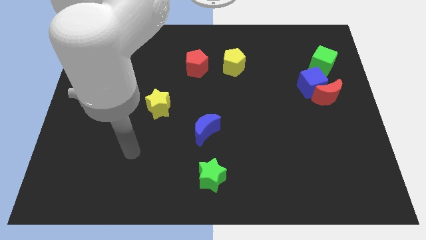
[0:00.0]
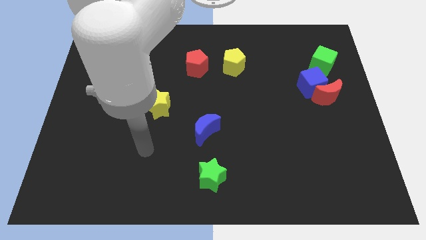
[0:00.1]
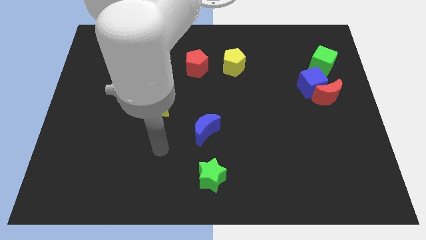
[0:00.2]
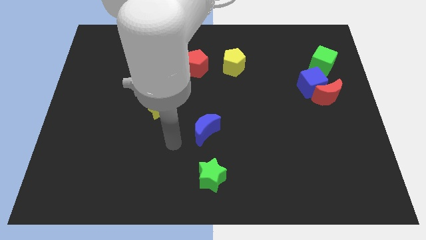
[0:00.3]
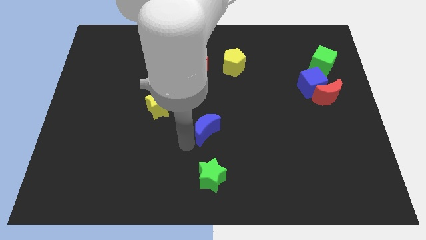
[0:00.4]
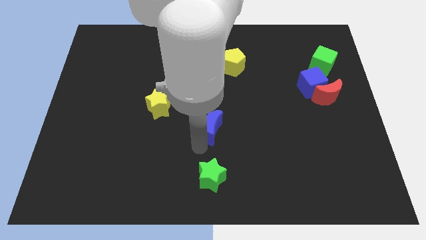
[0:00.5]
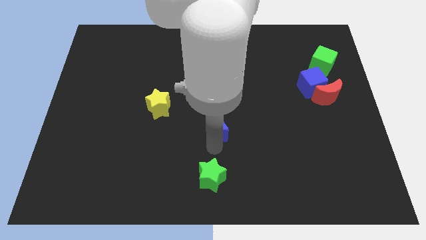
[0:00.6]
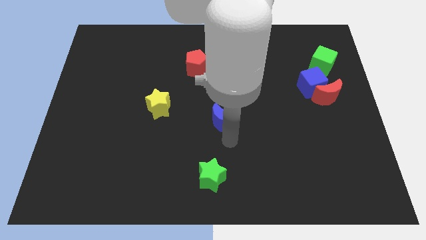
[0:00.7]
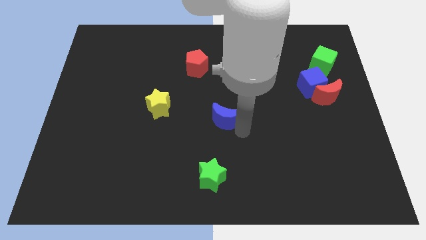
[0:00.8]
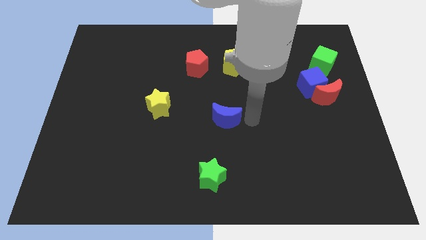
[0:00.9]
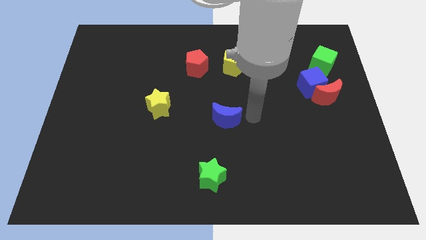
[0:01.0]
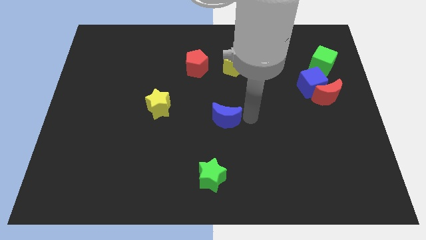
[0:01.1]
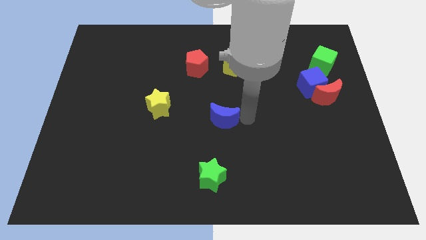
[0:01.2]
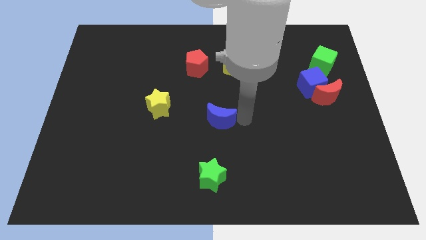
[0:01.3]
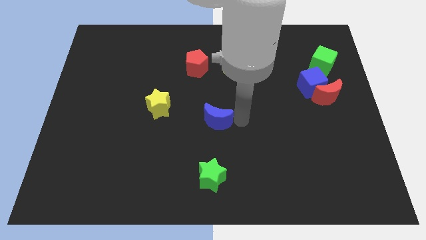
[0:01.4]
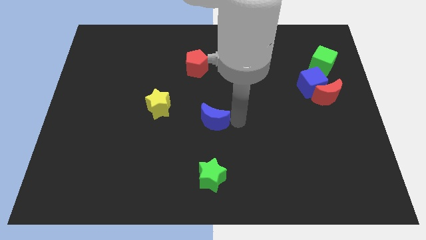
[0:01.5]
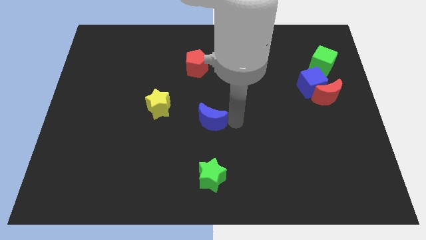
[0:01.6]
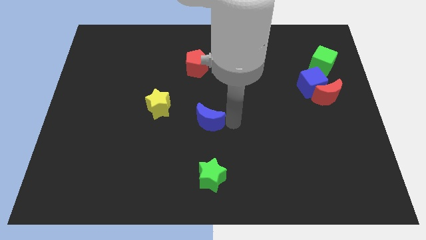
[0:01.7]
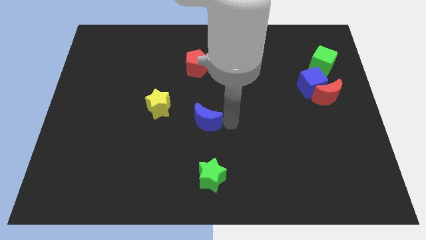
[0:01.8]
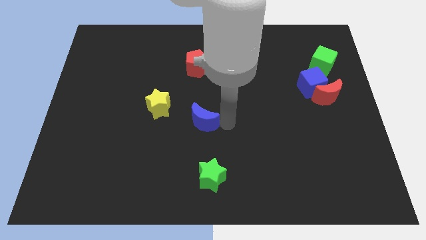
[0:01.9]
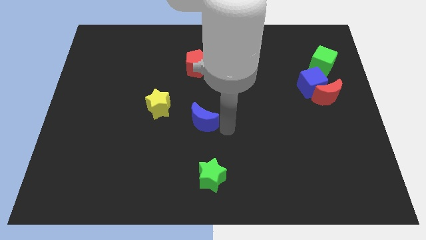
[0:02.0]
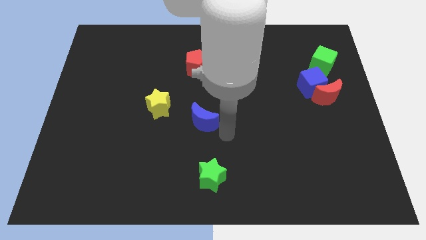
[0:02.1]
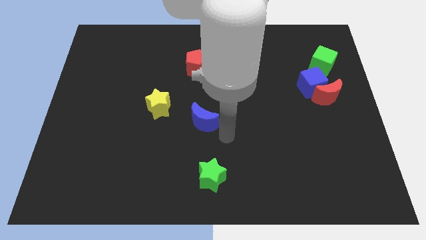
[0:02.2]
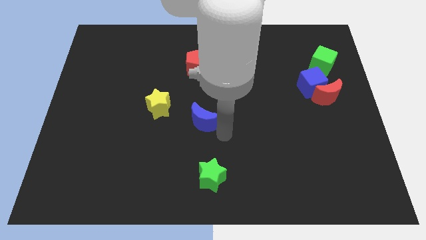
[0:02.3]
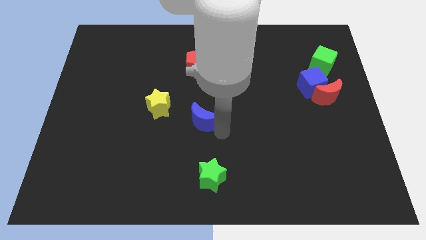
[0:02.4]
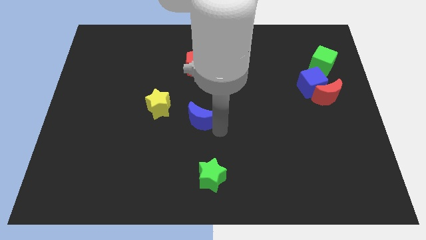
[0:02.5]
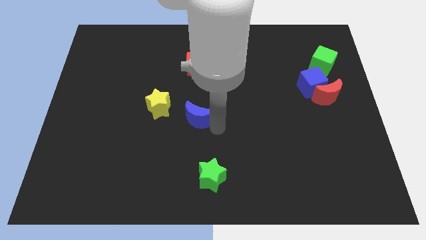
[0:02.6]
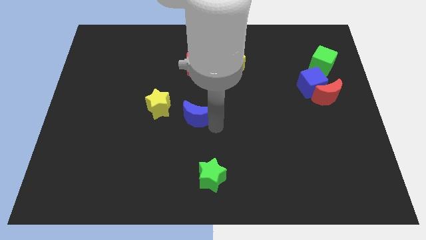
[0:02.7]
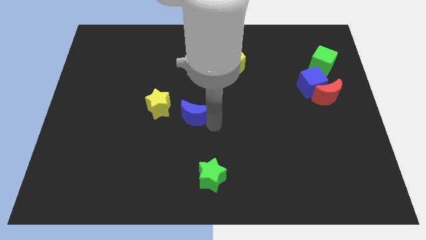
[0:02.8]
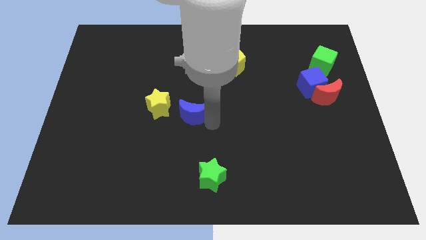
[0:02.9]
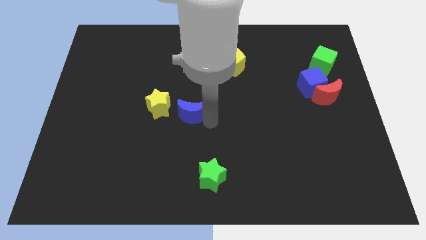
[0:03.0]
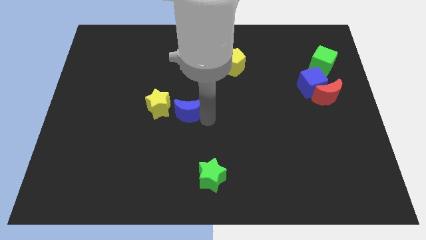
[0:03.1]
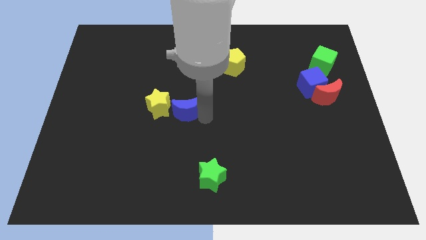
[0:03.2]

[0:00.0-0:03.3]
move the blue moon slightly upwards and then left

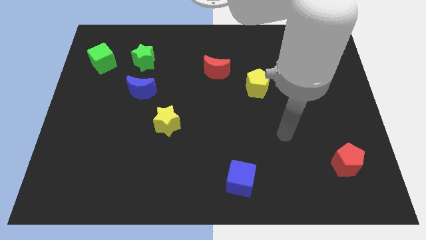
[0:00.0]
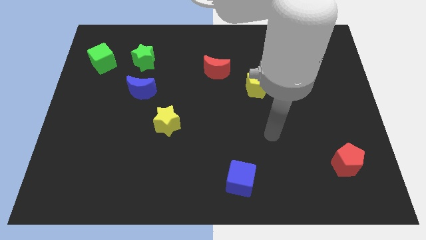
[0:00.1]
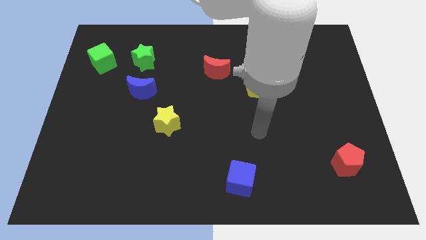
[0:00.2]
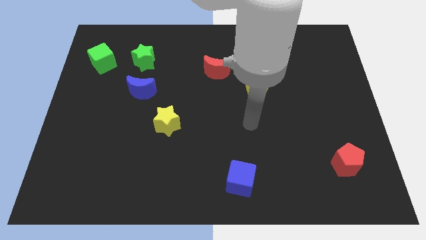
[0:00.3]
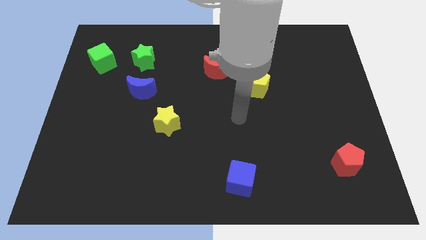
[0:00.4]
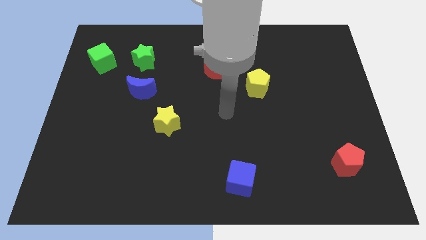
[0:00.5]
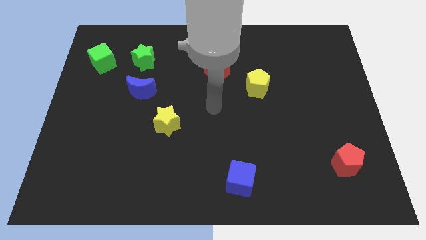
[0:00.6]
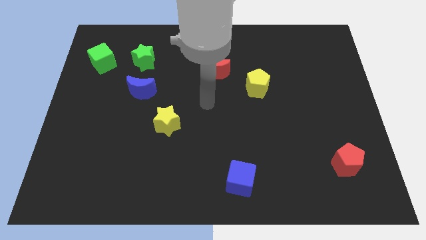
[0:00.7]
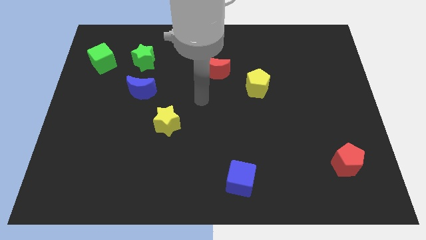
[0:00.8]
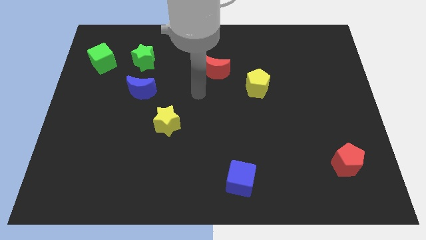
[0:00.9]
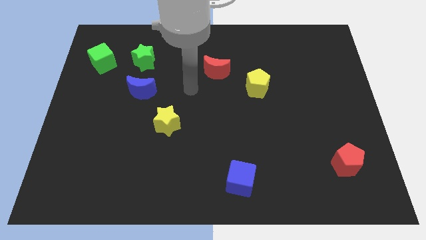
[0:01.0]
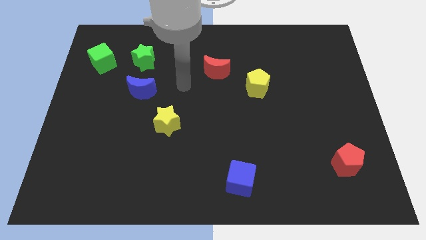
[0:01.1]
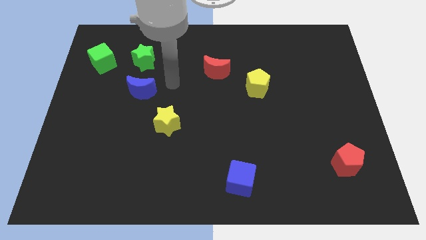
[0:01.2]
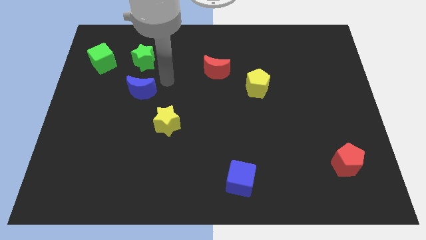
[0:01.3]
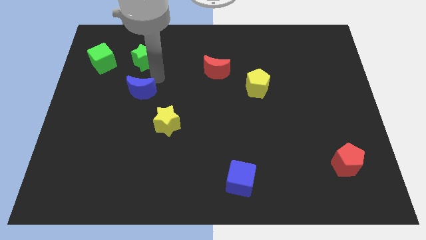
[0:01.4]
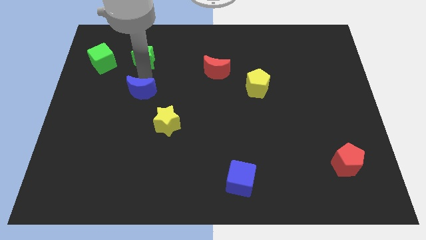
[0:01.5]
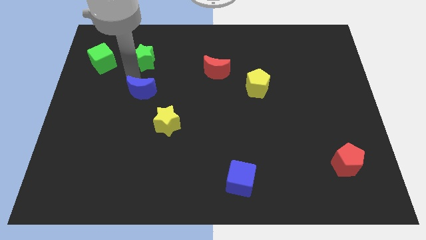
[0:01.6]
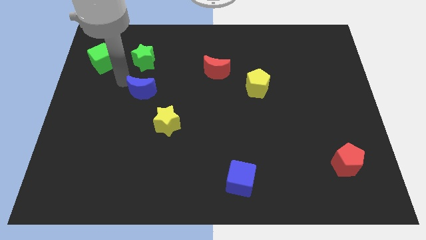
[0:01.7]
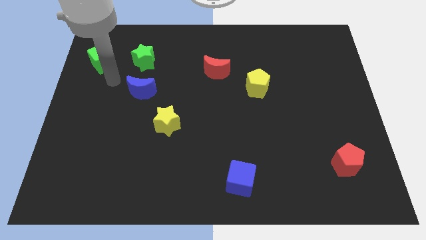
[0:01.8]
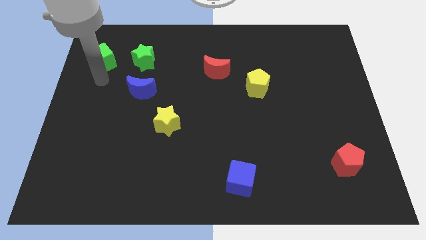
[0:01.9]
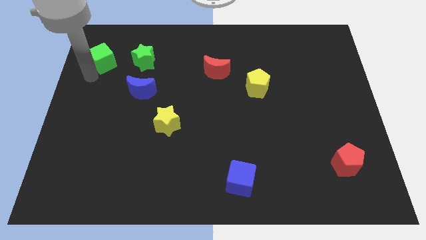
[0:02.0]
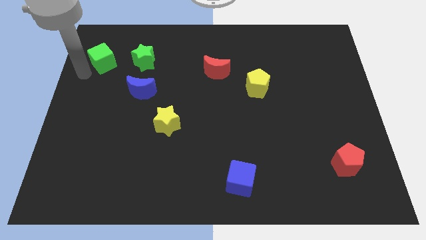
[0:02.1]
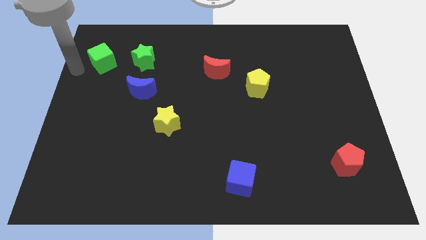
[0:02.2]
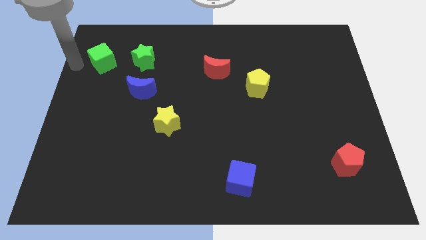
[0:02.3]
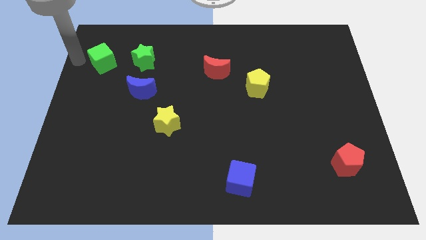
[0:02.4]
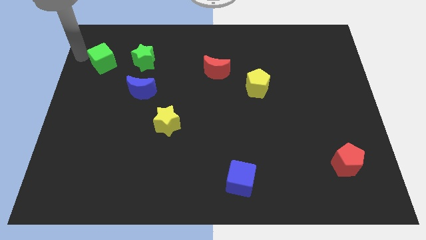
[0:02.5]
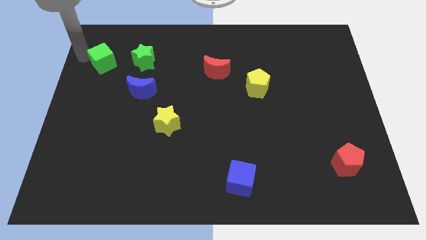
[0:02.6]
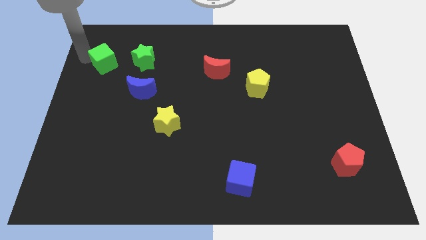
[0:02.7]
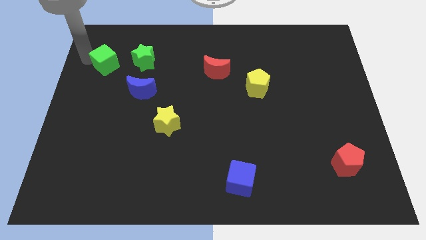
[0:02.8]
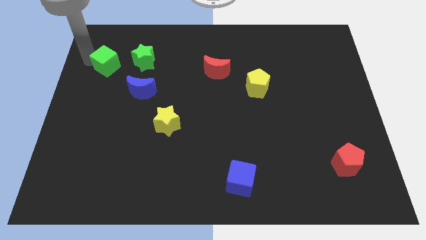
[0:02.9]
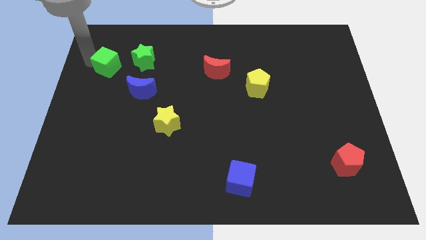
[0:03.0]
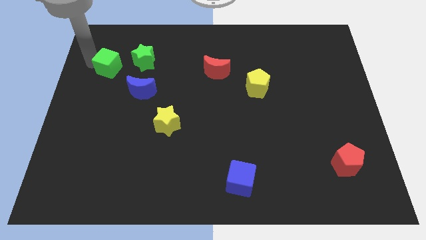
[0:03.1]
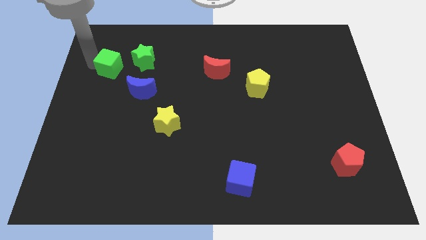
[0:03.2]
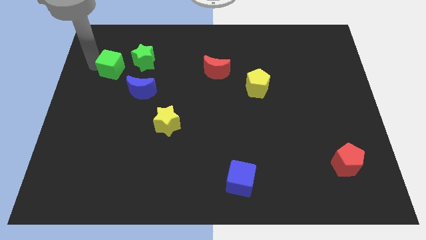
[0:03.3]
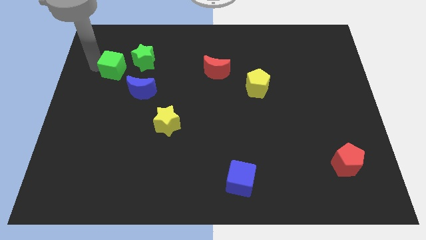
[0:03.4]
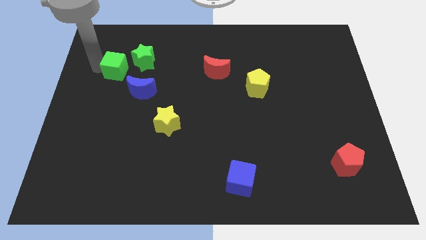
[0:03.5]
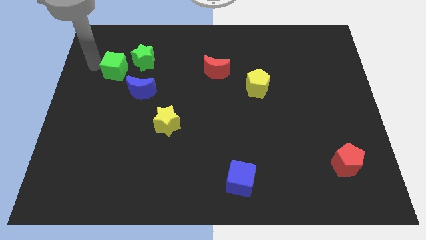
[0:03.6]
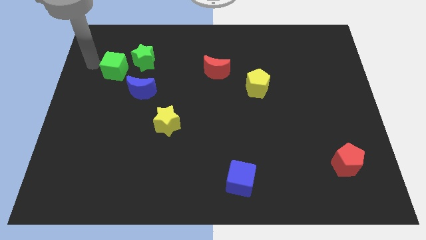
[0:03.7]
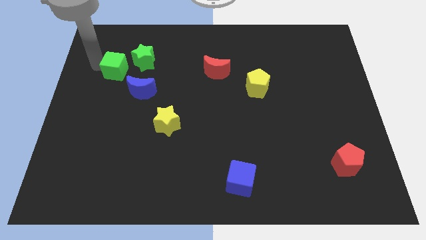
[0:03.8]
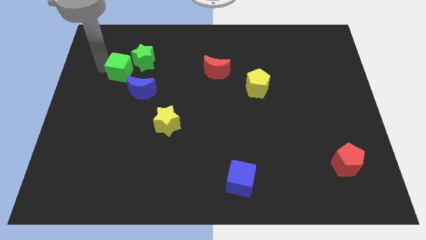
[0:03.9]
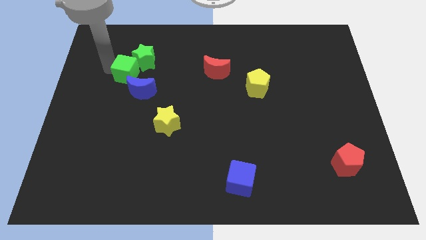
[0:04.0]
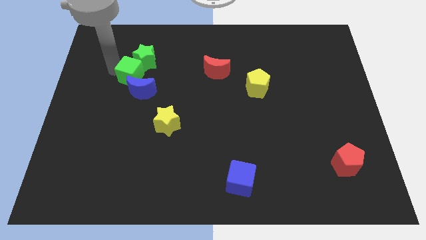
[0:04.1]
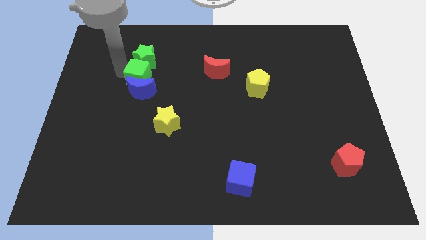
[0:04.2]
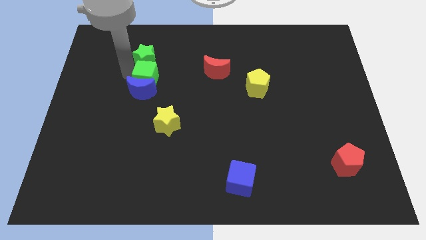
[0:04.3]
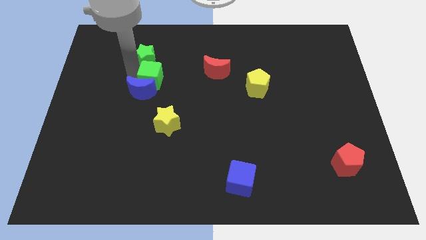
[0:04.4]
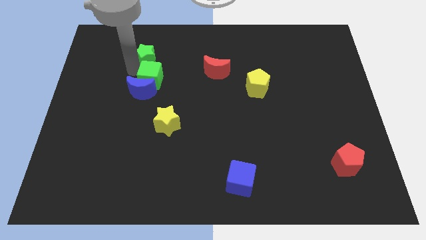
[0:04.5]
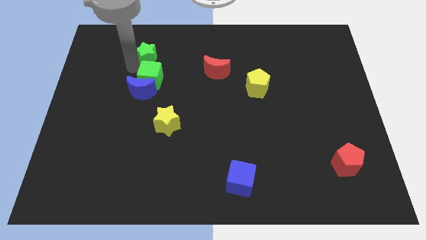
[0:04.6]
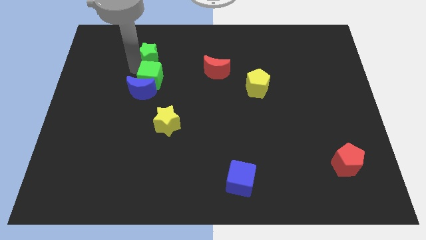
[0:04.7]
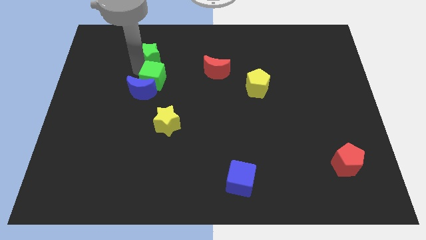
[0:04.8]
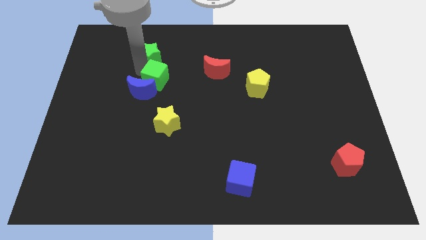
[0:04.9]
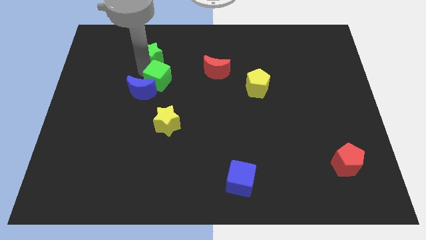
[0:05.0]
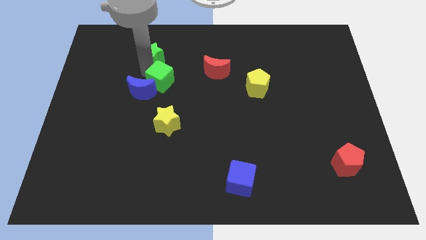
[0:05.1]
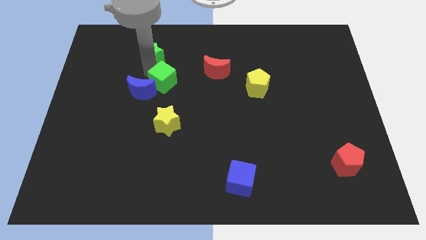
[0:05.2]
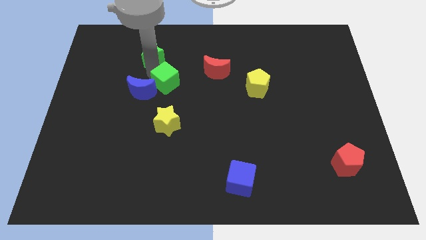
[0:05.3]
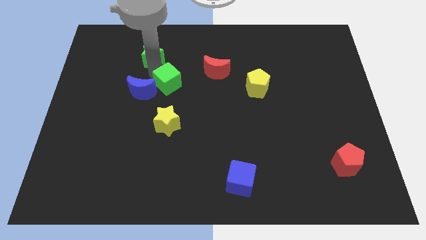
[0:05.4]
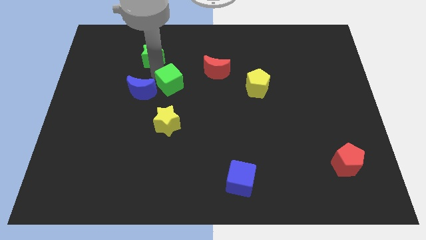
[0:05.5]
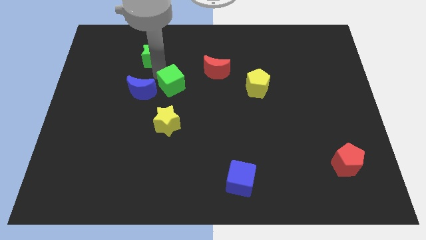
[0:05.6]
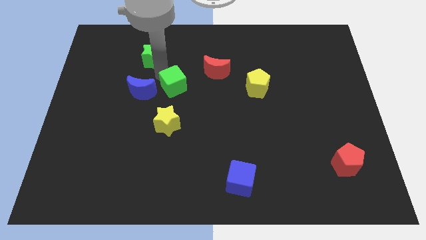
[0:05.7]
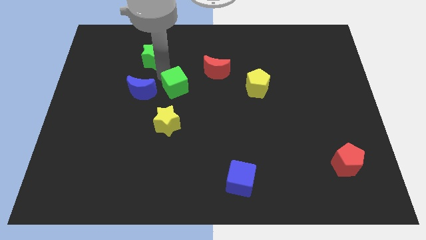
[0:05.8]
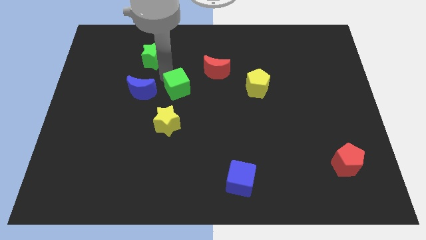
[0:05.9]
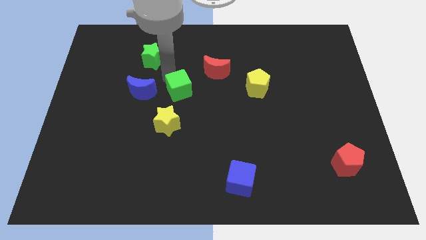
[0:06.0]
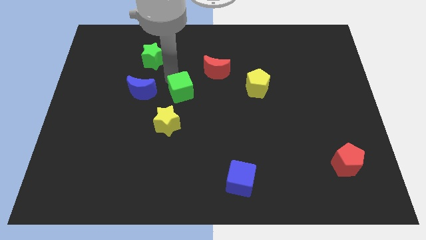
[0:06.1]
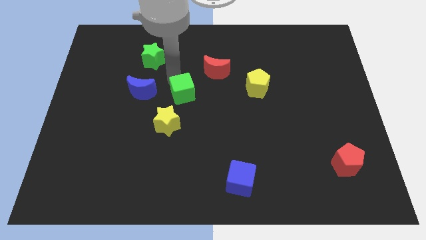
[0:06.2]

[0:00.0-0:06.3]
push the green cube diagonally downwards and right
